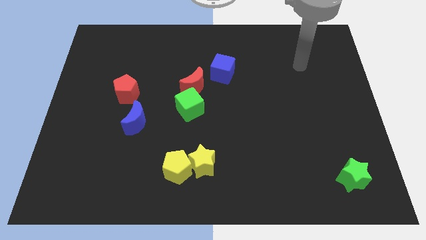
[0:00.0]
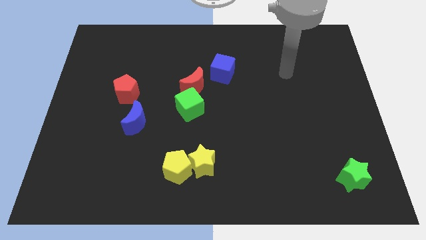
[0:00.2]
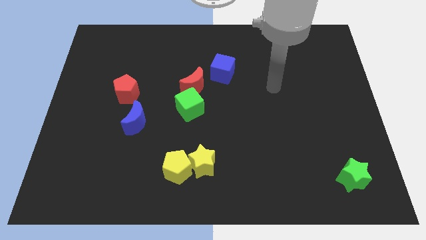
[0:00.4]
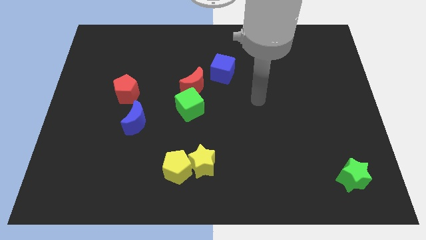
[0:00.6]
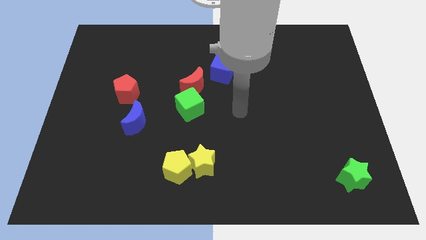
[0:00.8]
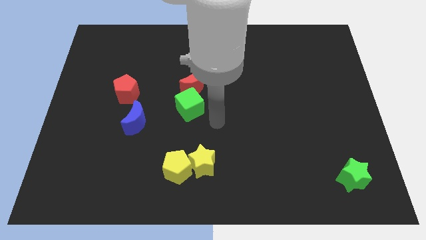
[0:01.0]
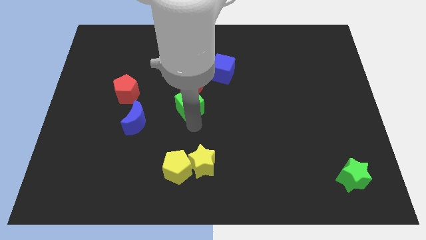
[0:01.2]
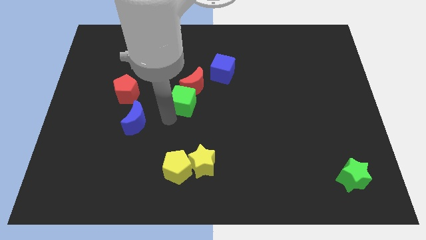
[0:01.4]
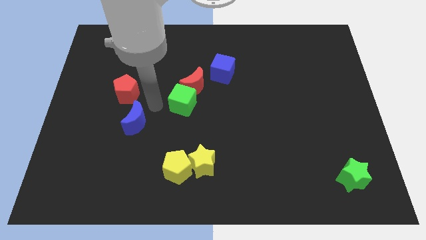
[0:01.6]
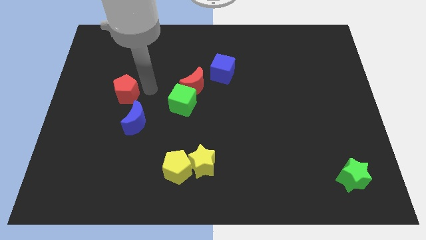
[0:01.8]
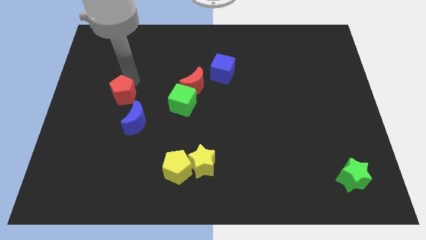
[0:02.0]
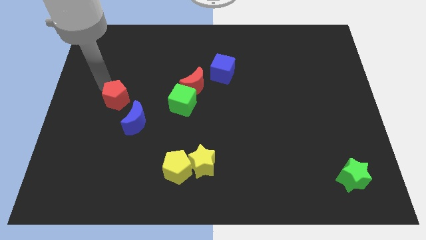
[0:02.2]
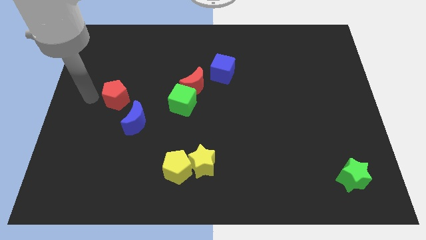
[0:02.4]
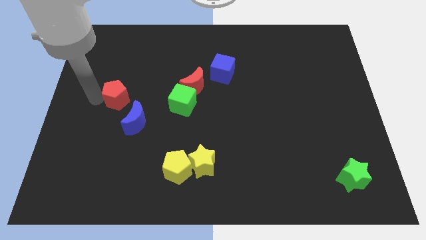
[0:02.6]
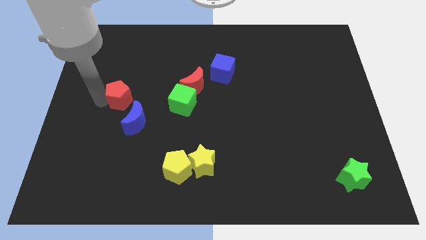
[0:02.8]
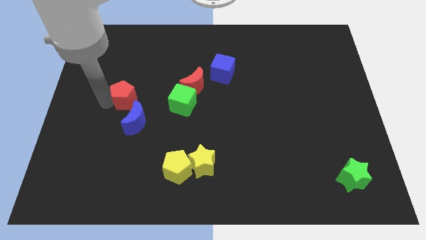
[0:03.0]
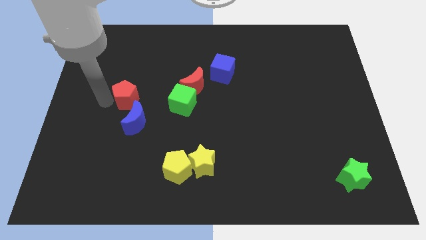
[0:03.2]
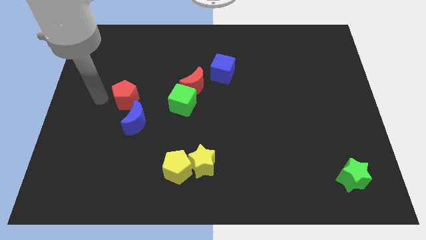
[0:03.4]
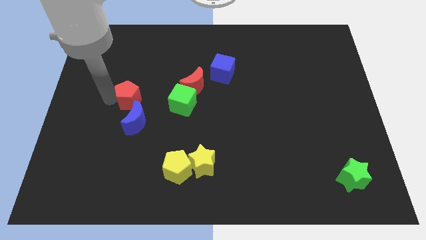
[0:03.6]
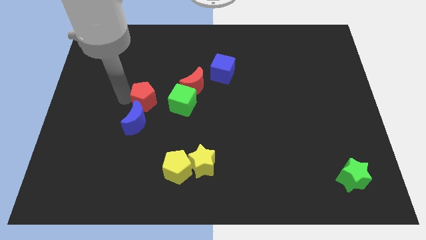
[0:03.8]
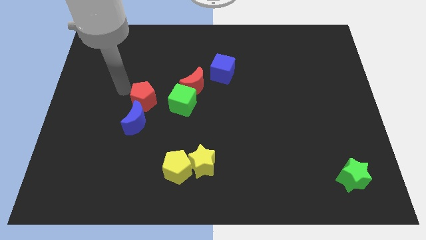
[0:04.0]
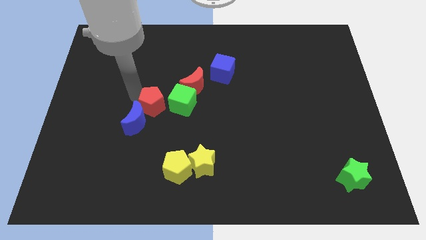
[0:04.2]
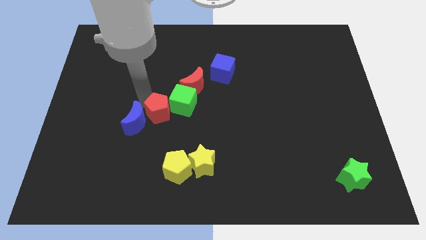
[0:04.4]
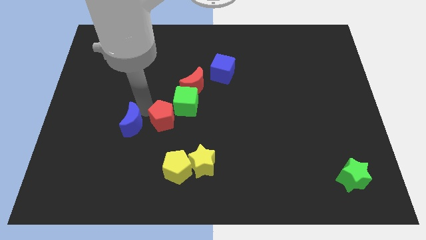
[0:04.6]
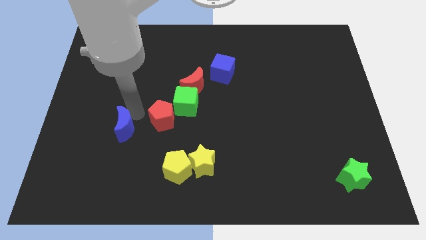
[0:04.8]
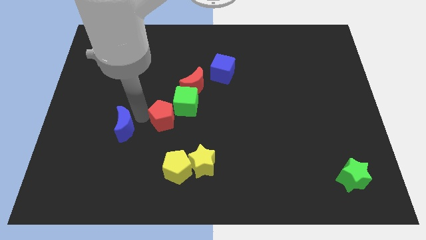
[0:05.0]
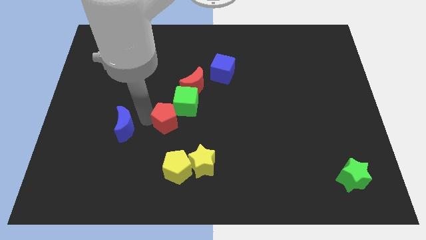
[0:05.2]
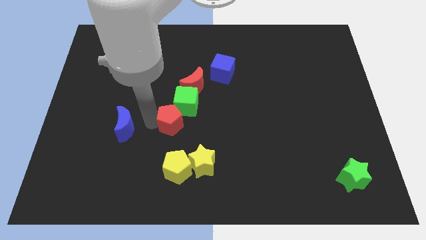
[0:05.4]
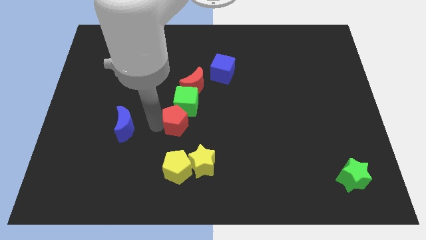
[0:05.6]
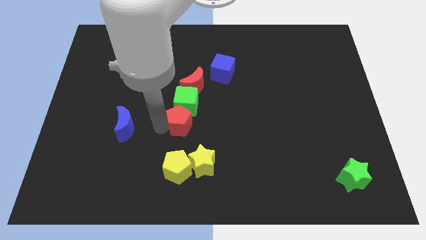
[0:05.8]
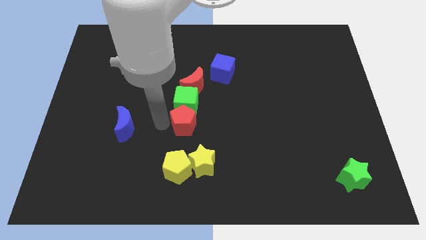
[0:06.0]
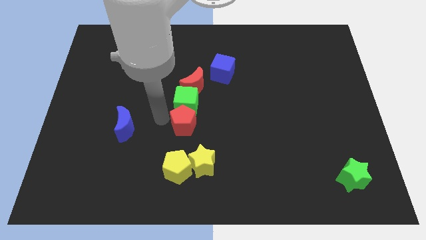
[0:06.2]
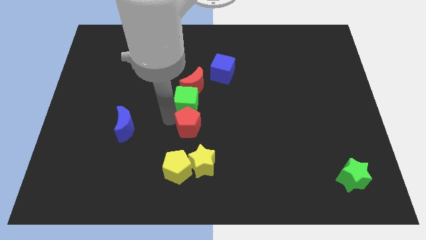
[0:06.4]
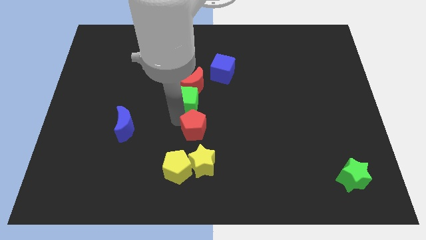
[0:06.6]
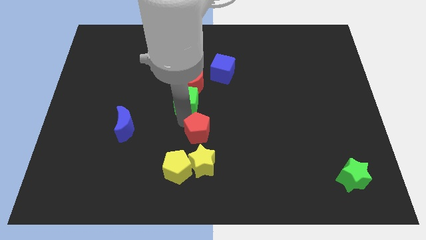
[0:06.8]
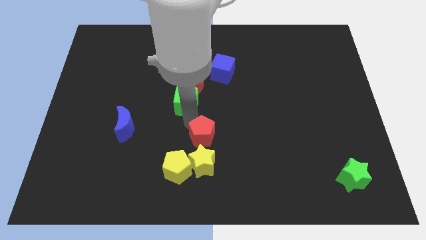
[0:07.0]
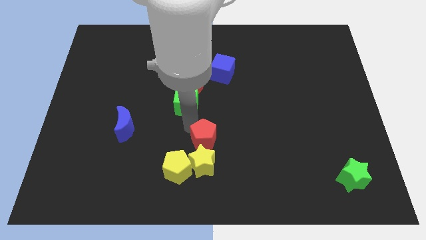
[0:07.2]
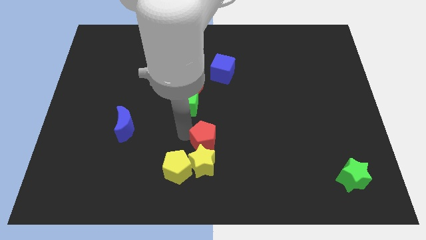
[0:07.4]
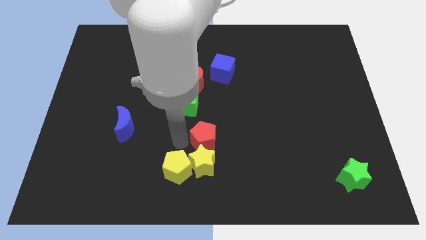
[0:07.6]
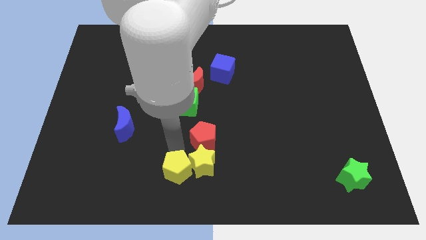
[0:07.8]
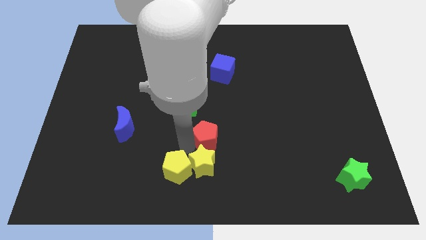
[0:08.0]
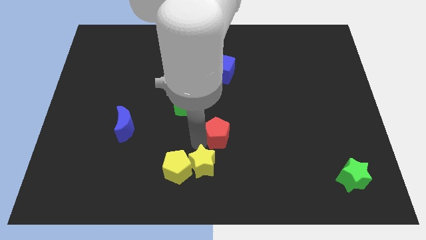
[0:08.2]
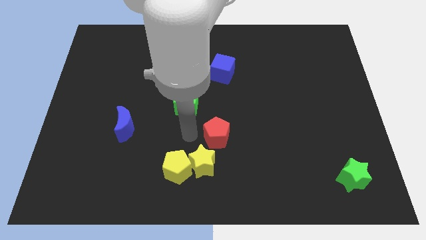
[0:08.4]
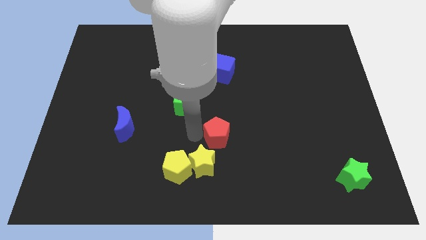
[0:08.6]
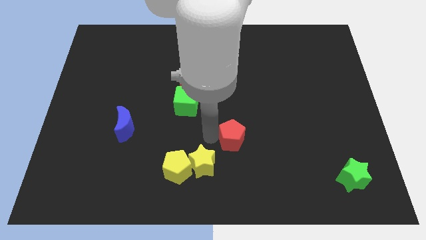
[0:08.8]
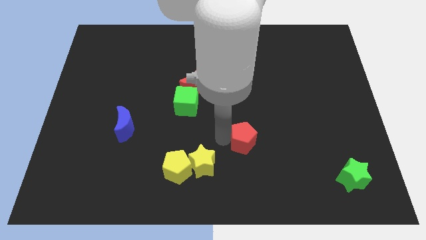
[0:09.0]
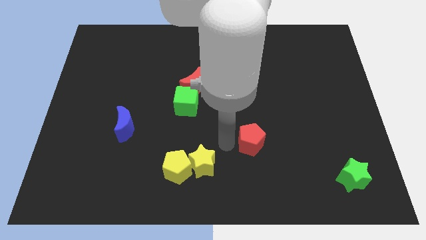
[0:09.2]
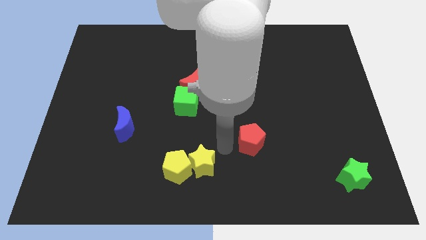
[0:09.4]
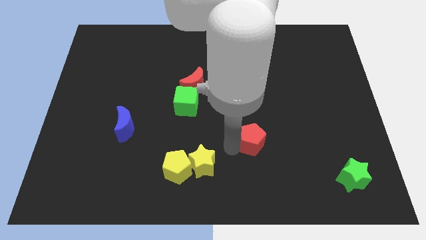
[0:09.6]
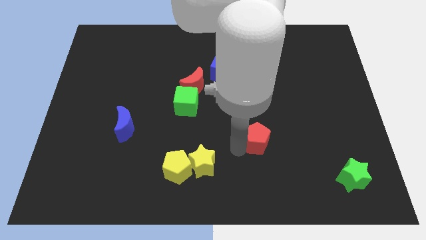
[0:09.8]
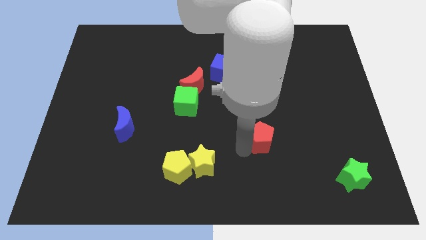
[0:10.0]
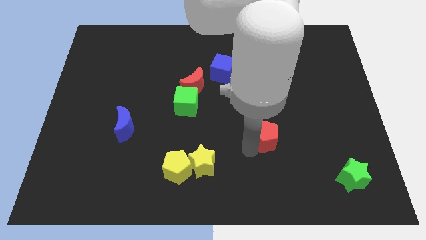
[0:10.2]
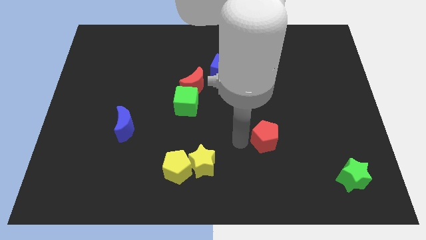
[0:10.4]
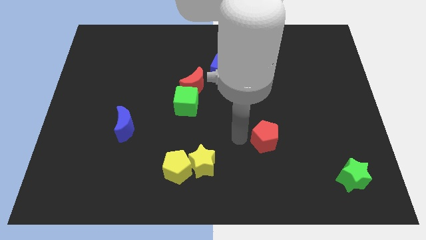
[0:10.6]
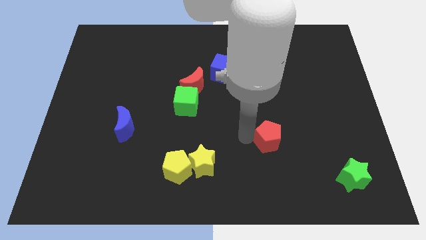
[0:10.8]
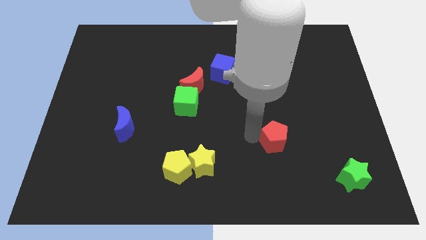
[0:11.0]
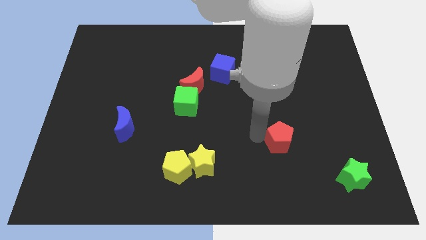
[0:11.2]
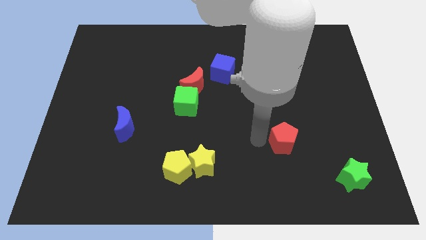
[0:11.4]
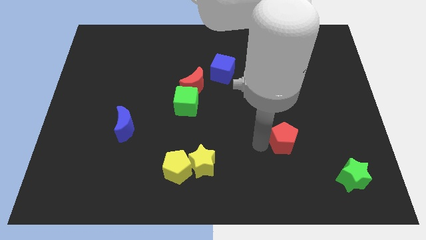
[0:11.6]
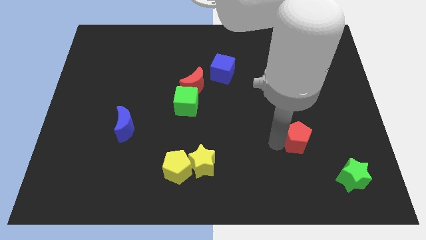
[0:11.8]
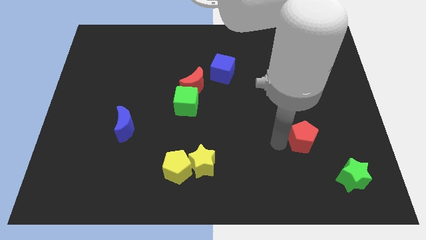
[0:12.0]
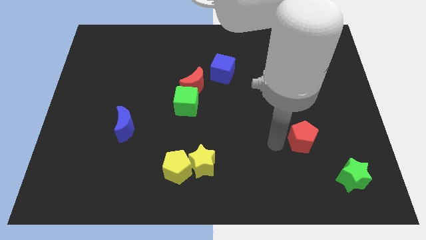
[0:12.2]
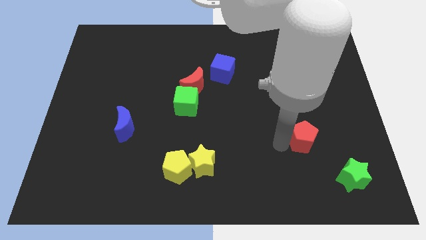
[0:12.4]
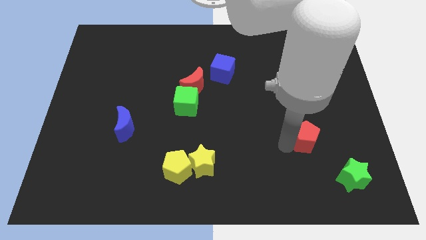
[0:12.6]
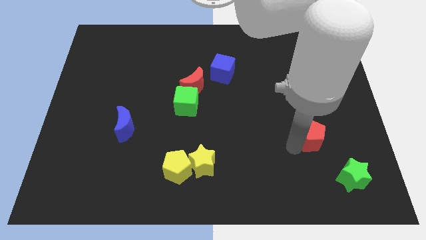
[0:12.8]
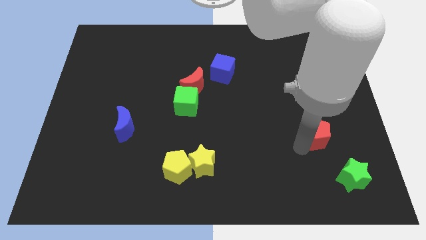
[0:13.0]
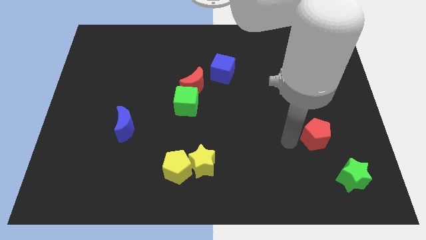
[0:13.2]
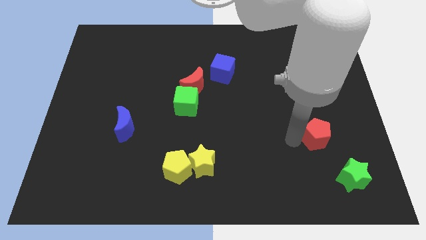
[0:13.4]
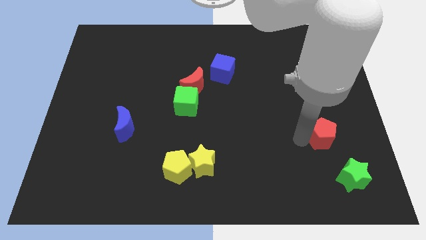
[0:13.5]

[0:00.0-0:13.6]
put the red pentagon to the top side of the green star
